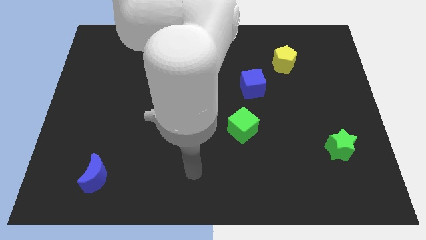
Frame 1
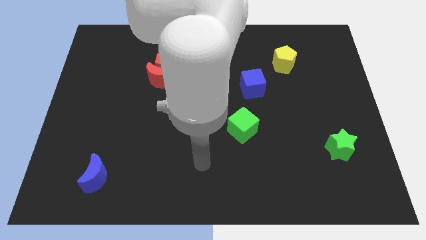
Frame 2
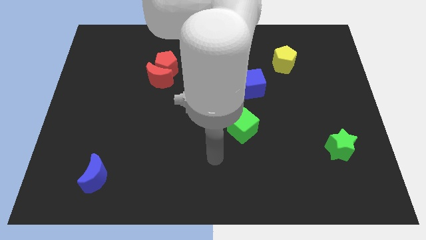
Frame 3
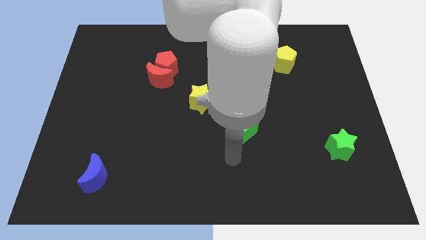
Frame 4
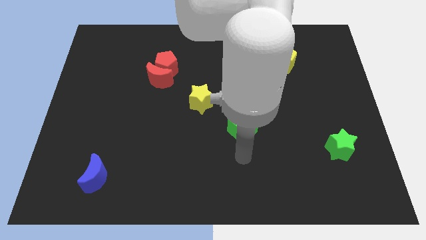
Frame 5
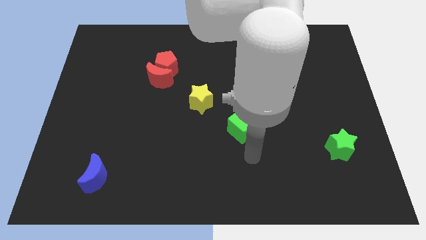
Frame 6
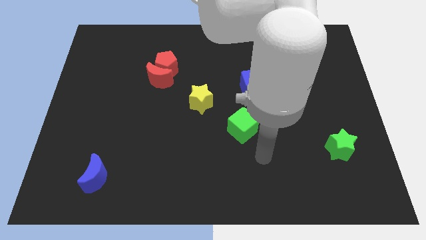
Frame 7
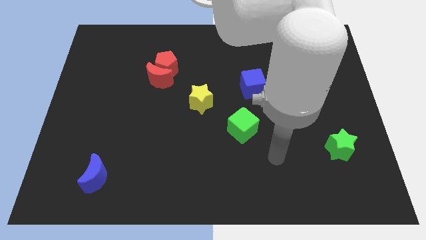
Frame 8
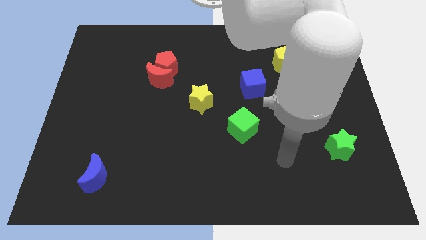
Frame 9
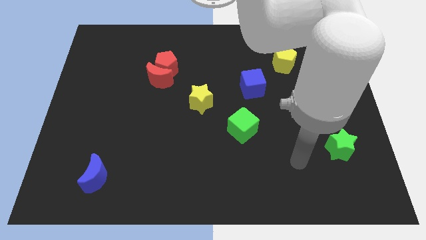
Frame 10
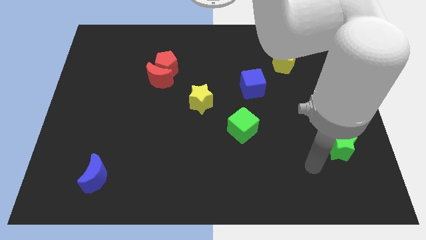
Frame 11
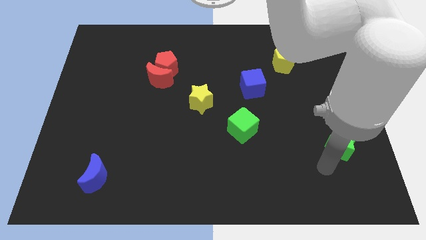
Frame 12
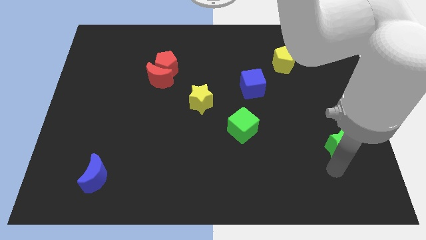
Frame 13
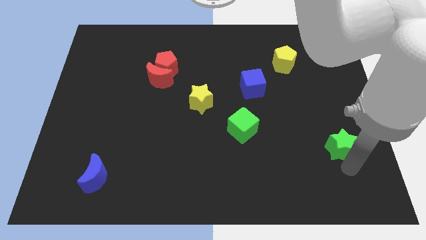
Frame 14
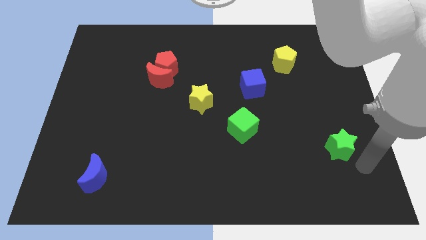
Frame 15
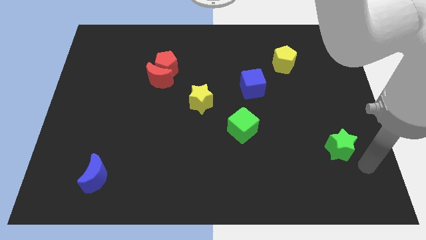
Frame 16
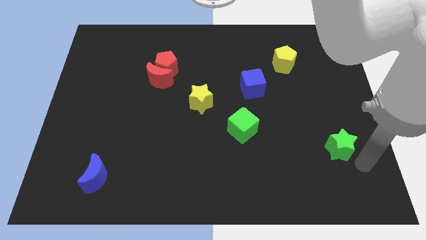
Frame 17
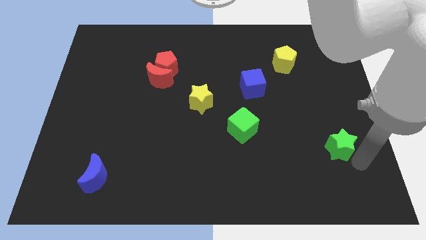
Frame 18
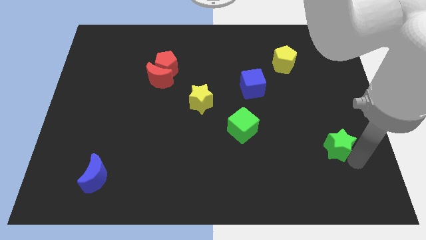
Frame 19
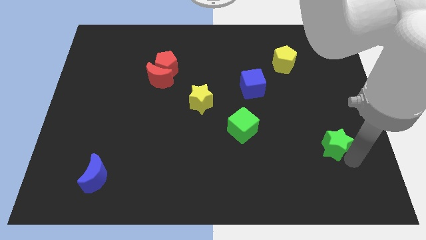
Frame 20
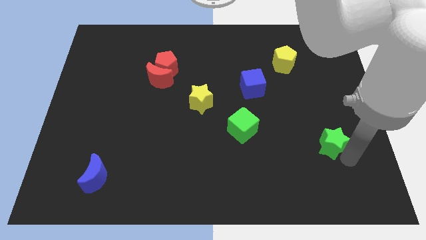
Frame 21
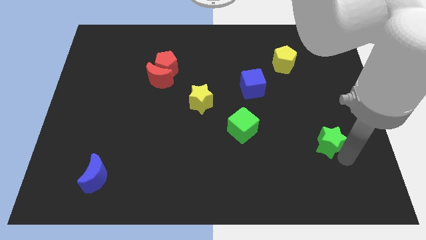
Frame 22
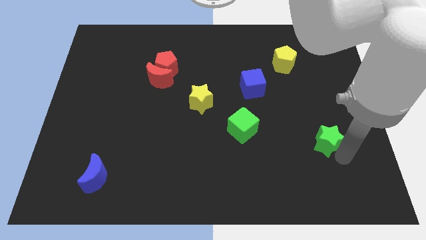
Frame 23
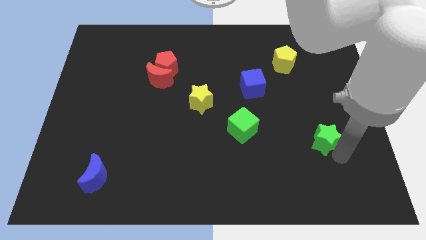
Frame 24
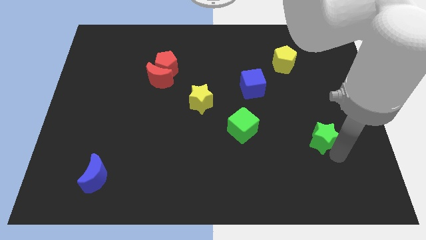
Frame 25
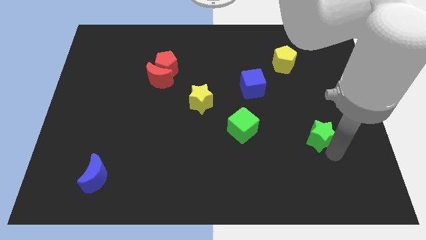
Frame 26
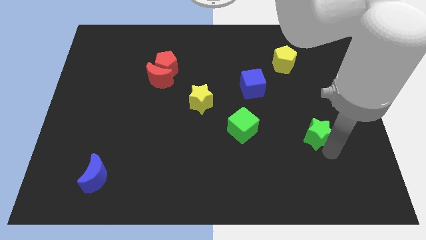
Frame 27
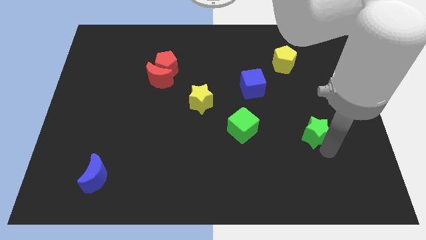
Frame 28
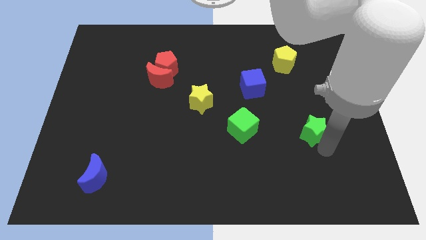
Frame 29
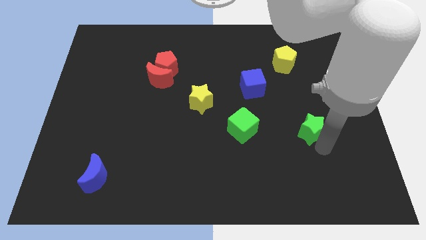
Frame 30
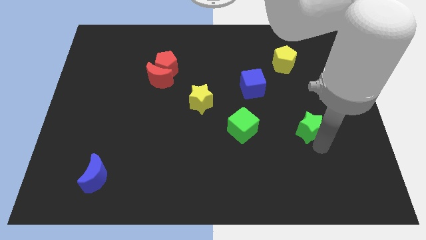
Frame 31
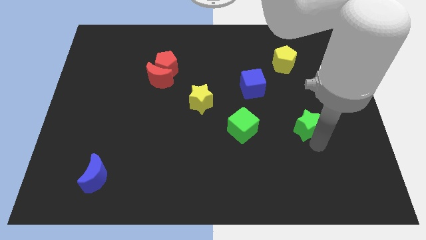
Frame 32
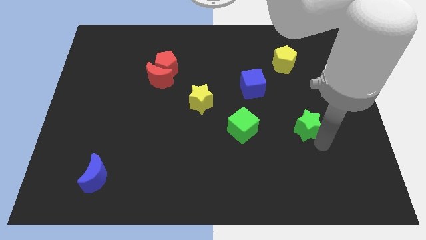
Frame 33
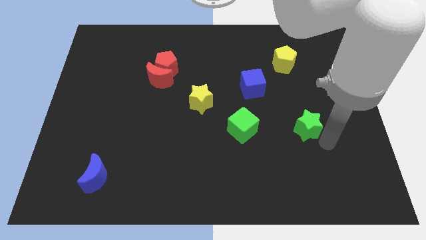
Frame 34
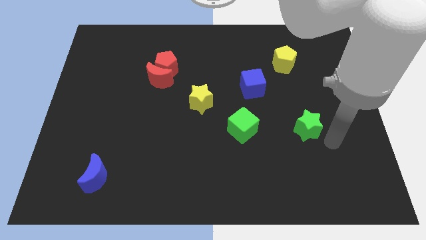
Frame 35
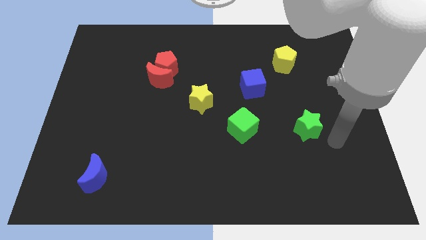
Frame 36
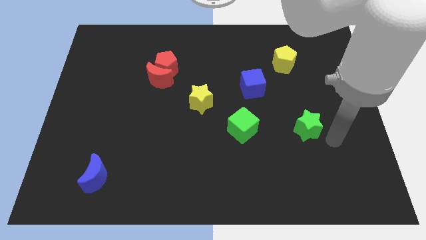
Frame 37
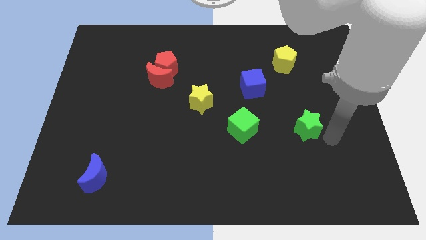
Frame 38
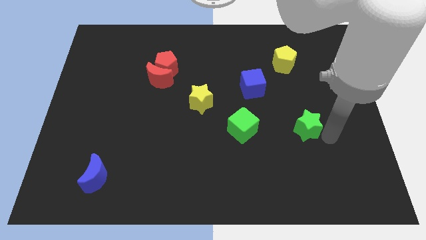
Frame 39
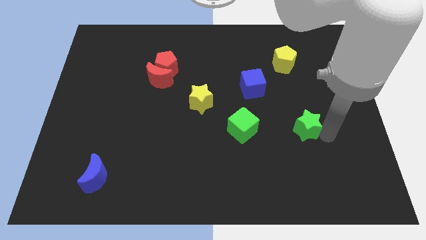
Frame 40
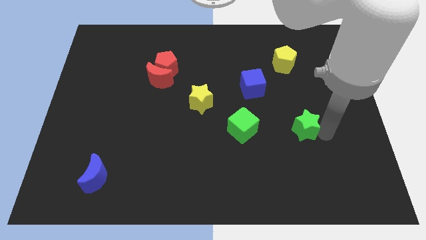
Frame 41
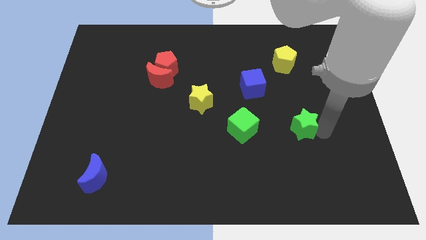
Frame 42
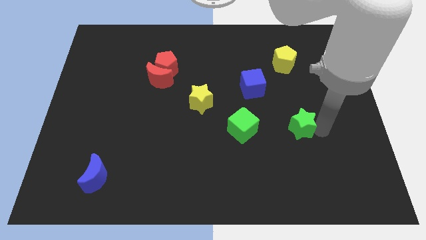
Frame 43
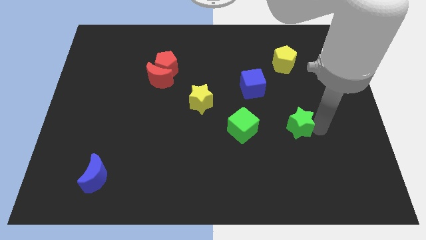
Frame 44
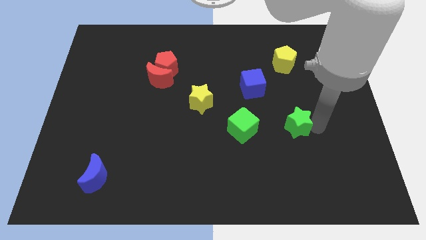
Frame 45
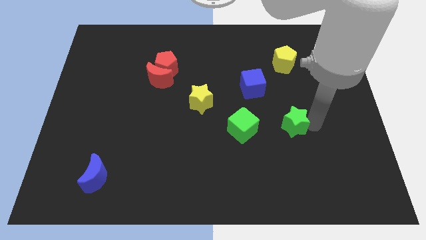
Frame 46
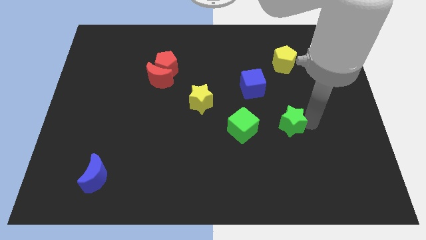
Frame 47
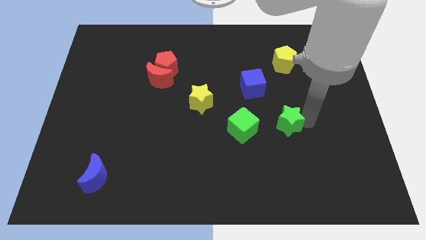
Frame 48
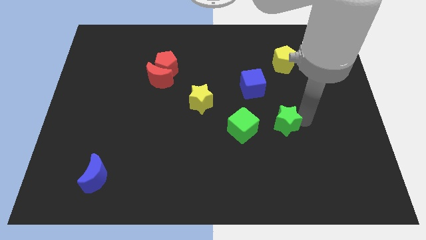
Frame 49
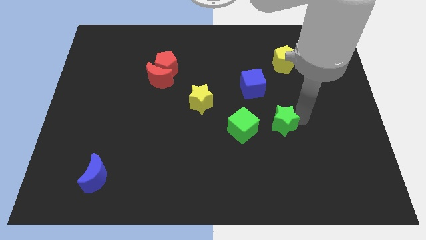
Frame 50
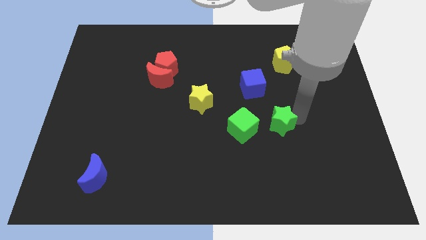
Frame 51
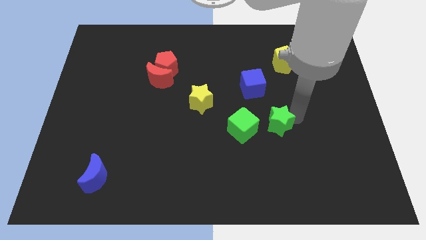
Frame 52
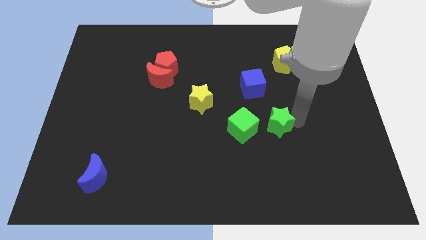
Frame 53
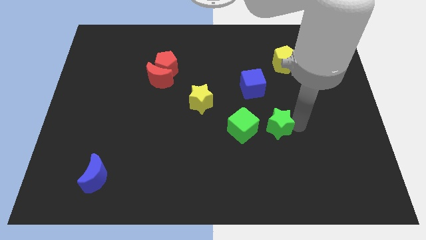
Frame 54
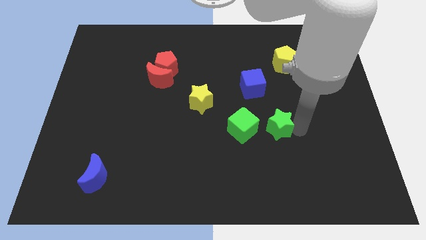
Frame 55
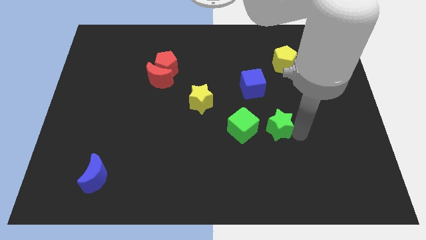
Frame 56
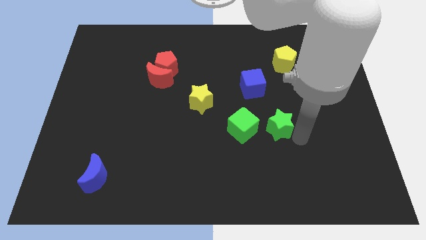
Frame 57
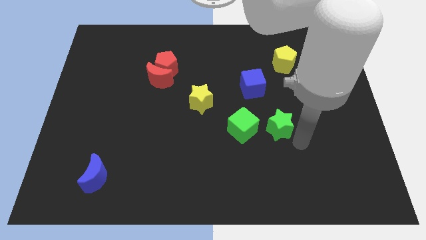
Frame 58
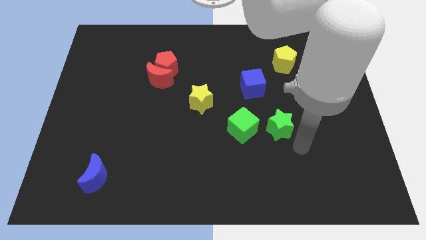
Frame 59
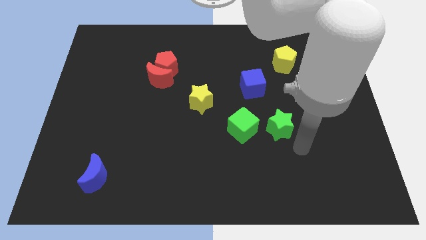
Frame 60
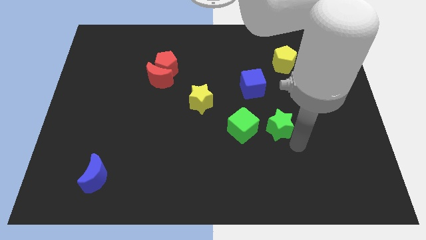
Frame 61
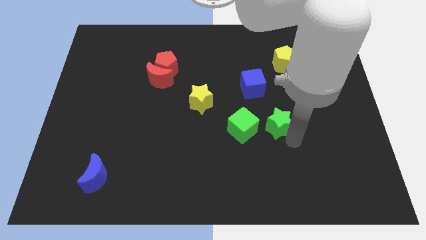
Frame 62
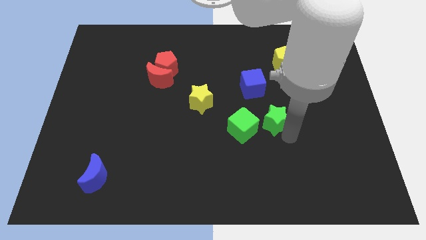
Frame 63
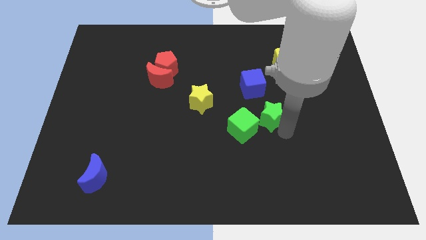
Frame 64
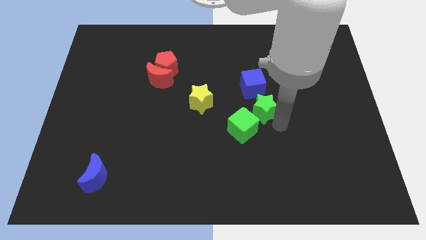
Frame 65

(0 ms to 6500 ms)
push the green star just right of the yellow star
